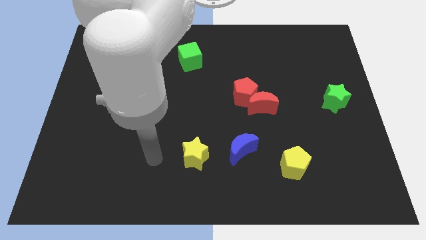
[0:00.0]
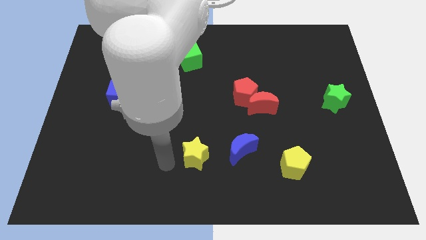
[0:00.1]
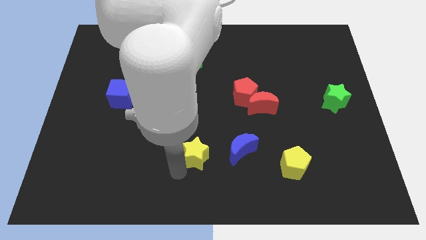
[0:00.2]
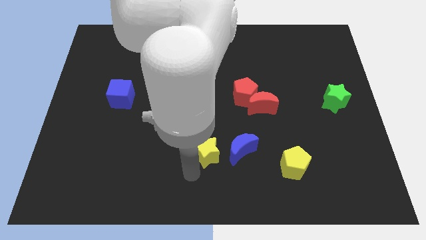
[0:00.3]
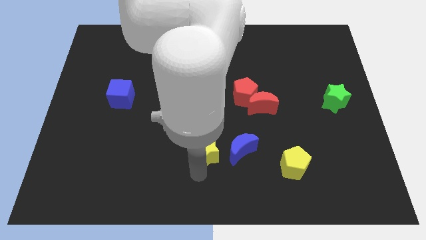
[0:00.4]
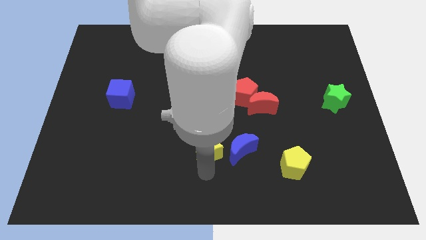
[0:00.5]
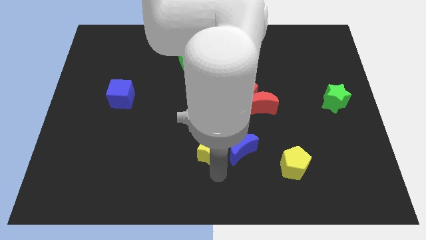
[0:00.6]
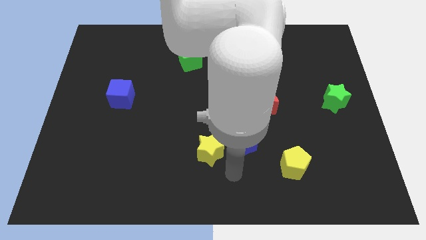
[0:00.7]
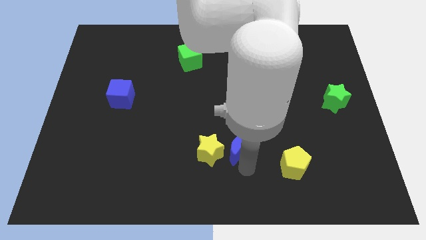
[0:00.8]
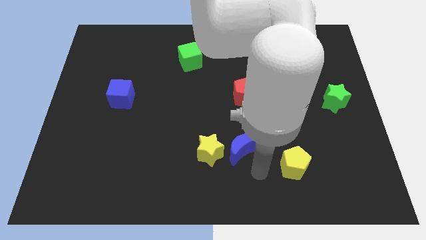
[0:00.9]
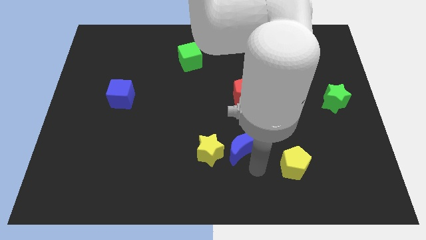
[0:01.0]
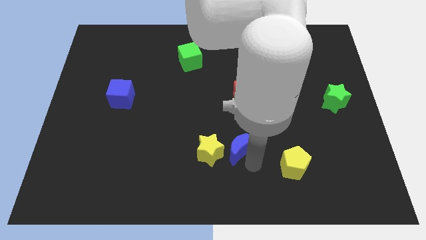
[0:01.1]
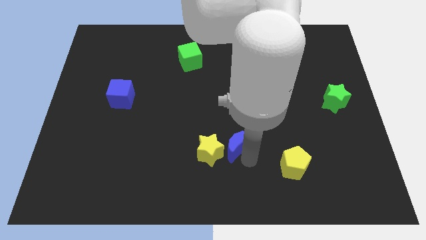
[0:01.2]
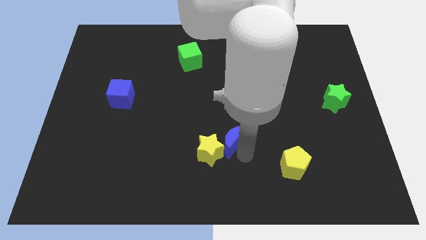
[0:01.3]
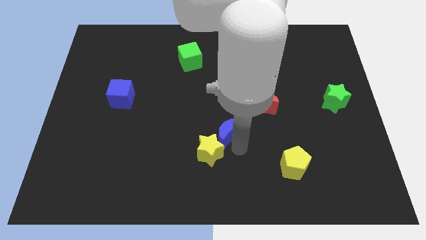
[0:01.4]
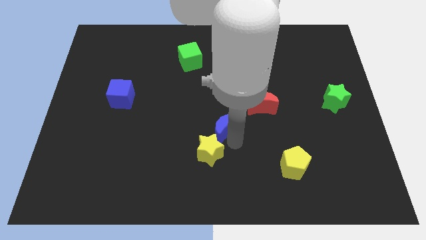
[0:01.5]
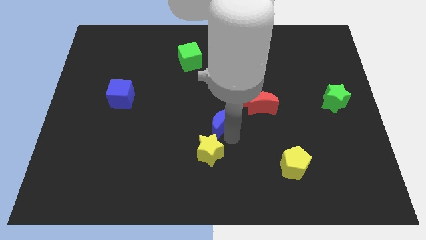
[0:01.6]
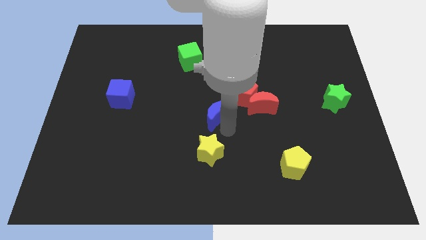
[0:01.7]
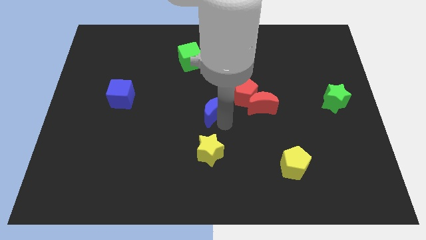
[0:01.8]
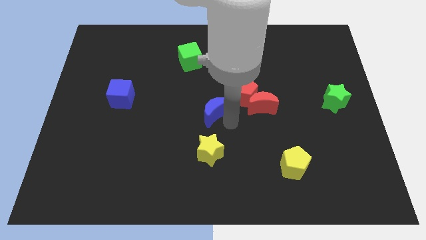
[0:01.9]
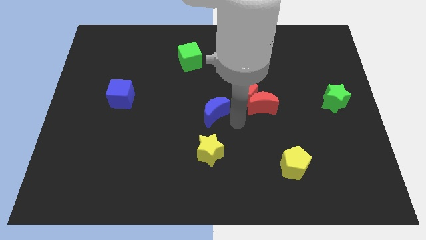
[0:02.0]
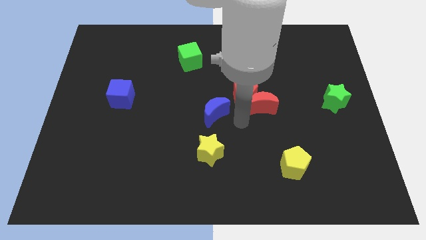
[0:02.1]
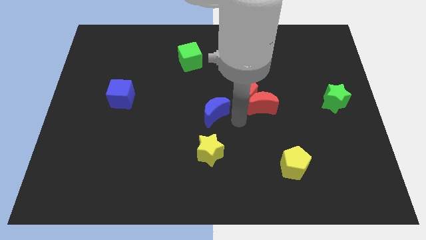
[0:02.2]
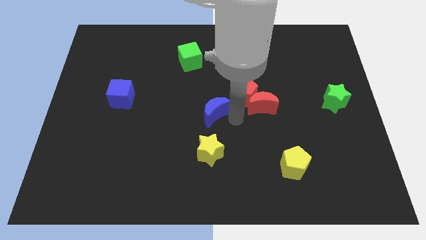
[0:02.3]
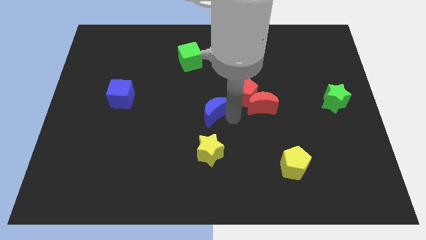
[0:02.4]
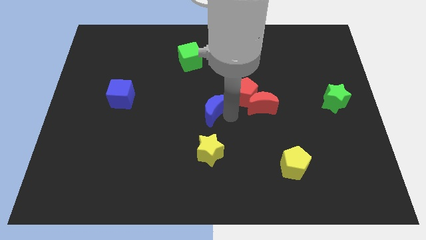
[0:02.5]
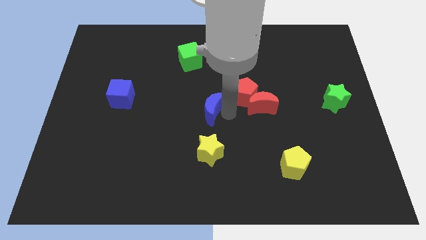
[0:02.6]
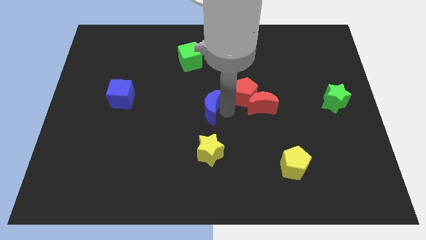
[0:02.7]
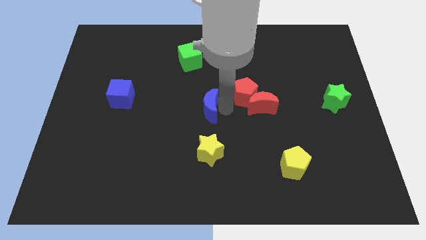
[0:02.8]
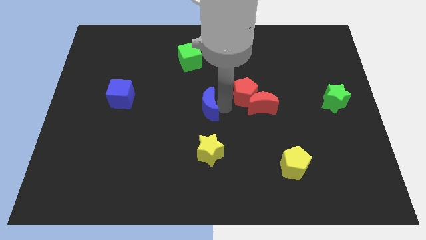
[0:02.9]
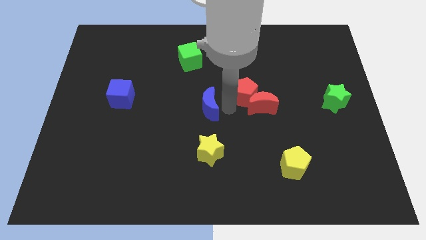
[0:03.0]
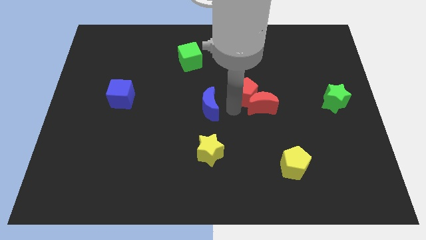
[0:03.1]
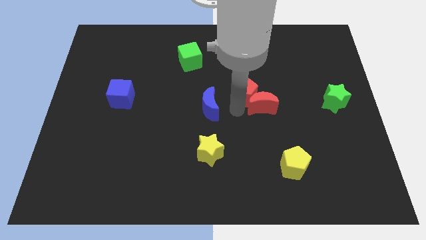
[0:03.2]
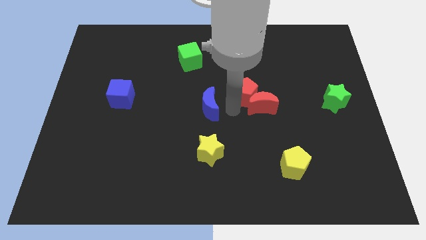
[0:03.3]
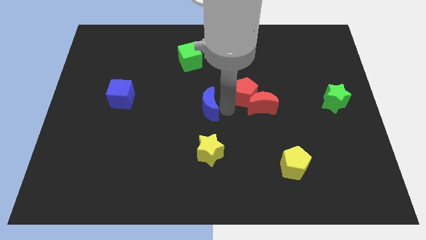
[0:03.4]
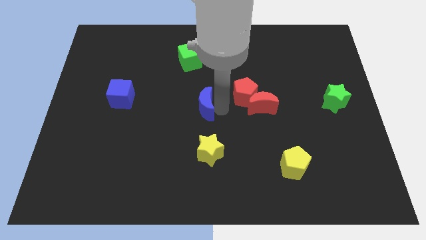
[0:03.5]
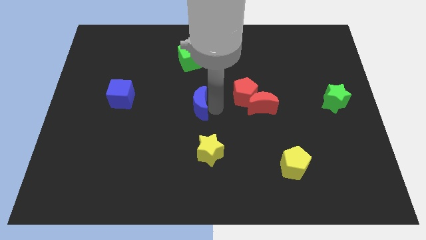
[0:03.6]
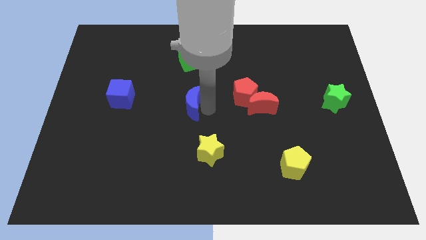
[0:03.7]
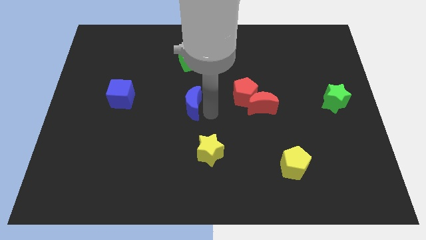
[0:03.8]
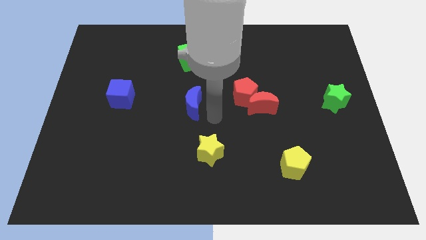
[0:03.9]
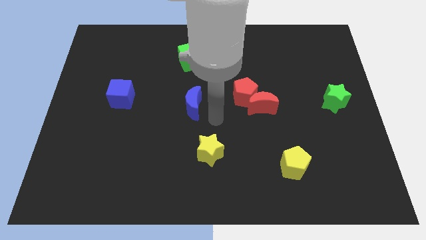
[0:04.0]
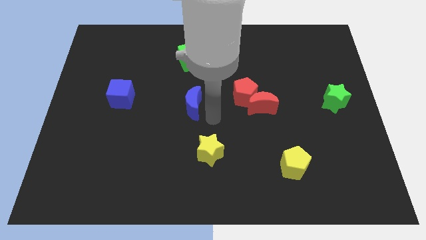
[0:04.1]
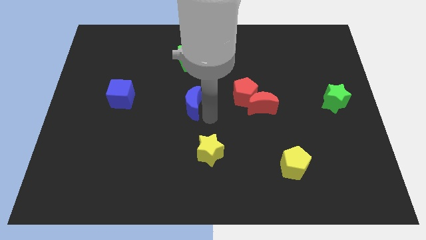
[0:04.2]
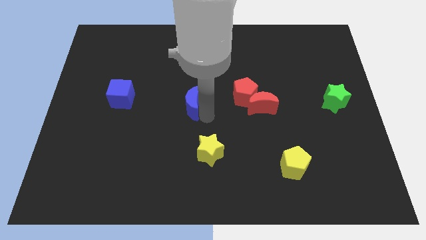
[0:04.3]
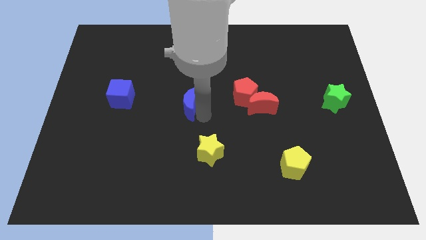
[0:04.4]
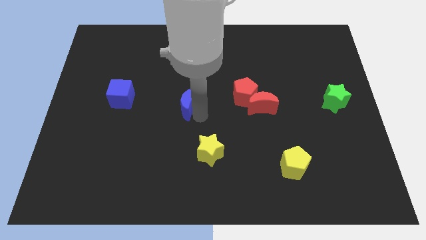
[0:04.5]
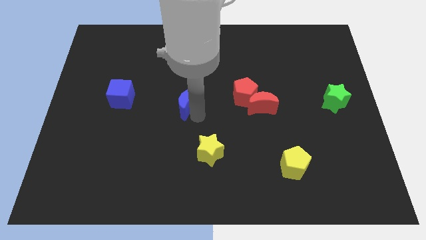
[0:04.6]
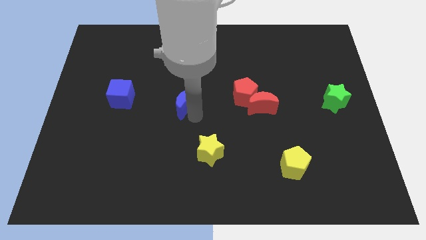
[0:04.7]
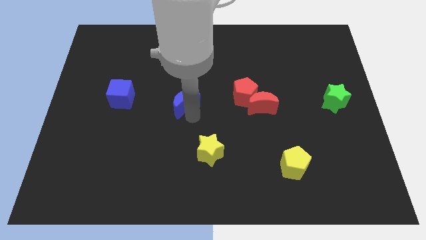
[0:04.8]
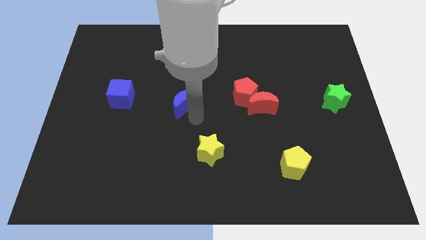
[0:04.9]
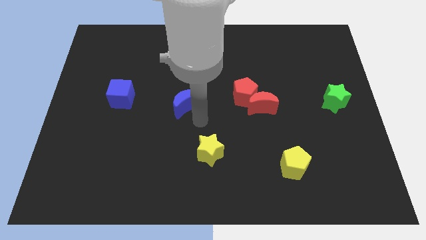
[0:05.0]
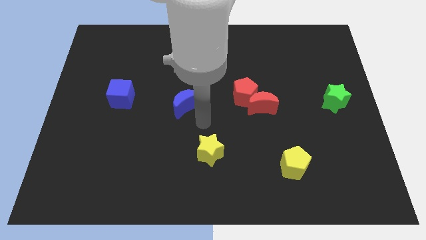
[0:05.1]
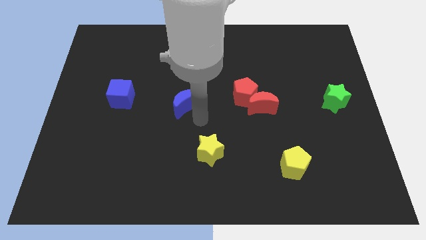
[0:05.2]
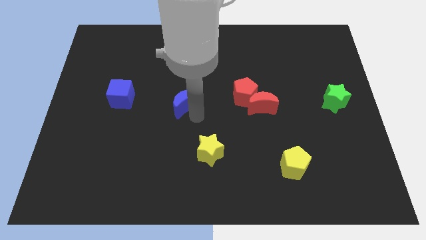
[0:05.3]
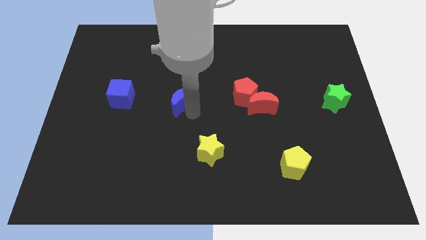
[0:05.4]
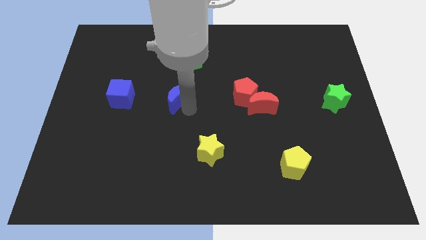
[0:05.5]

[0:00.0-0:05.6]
push the blue moon up and then left

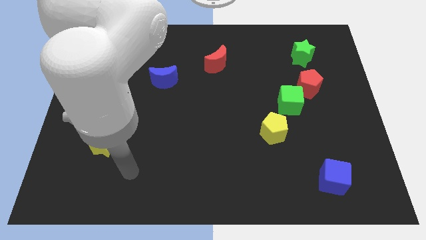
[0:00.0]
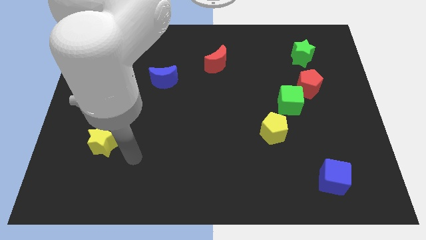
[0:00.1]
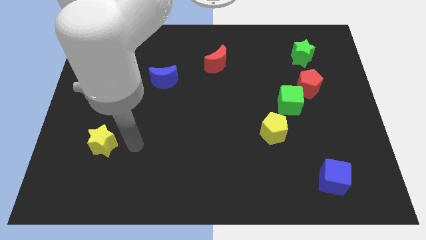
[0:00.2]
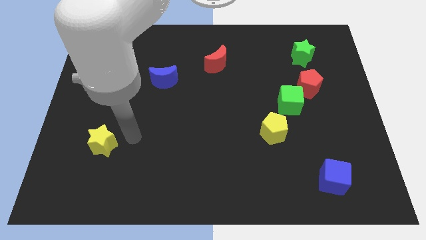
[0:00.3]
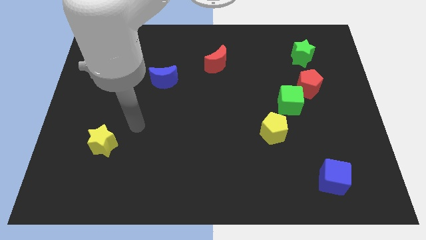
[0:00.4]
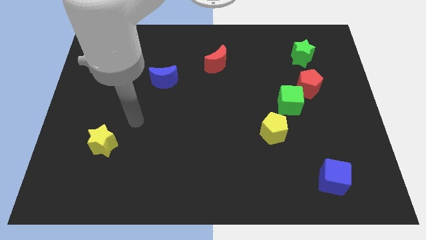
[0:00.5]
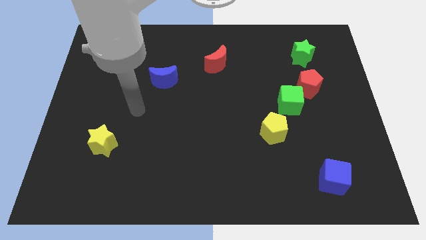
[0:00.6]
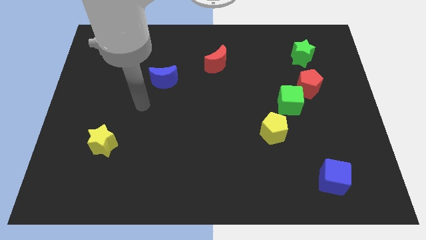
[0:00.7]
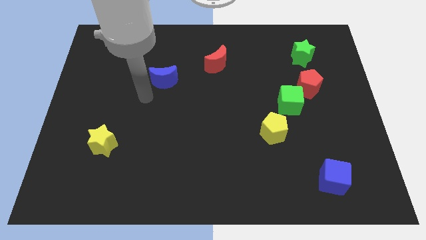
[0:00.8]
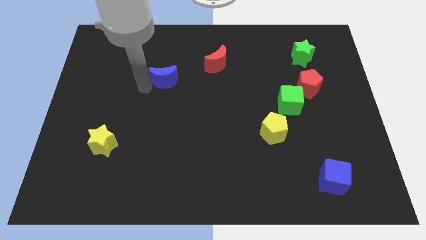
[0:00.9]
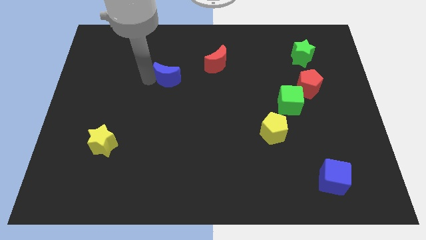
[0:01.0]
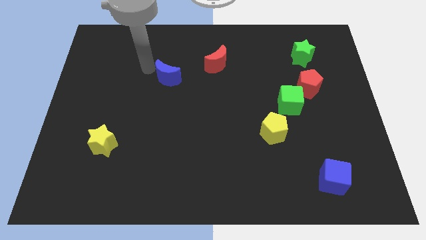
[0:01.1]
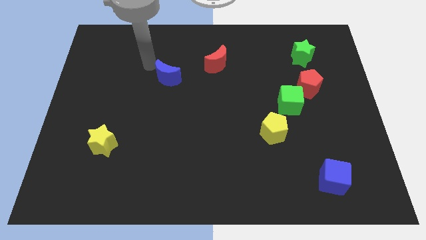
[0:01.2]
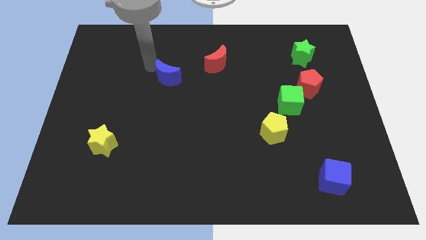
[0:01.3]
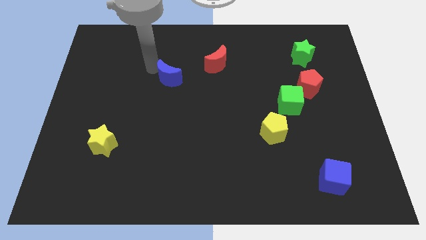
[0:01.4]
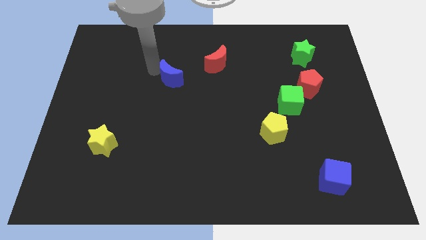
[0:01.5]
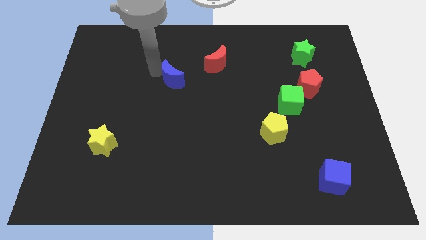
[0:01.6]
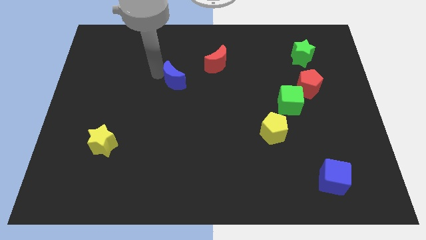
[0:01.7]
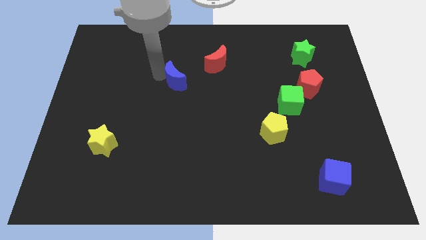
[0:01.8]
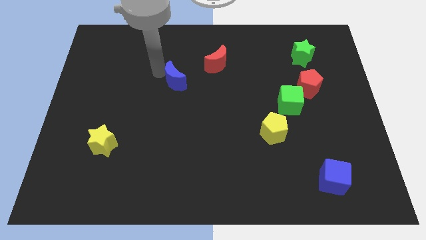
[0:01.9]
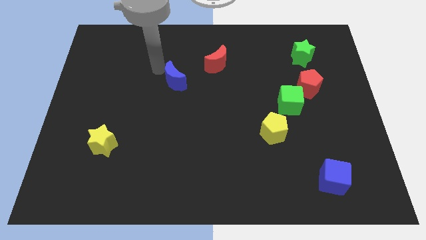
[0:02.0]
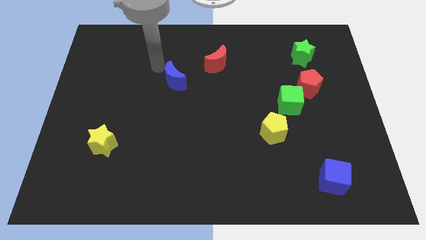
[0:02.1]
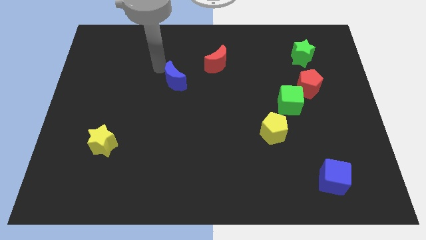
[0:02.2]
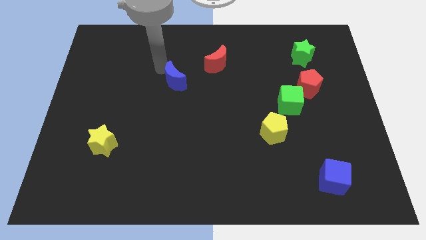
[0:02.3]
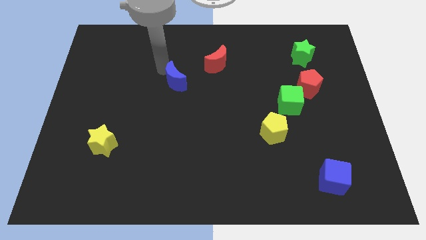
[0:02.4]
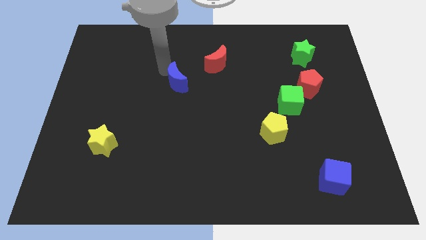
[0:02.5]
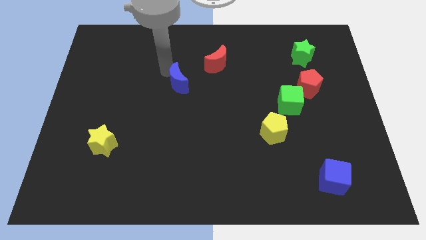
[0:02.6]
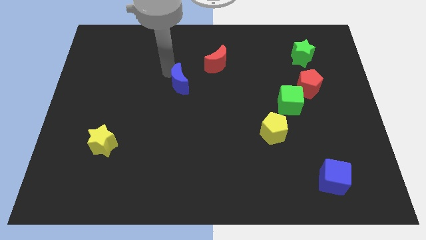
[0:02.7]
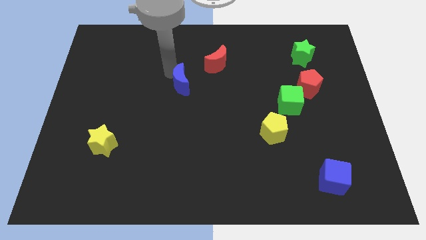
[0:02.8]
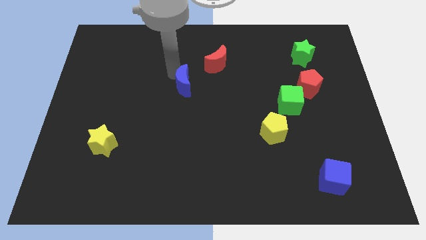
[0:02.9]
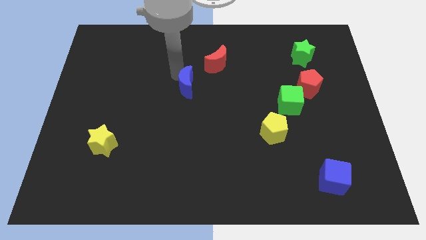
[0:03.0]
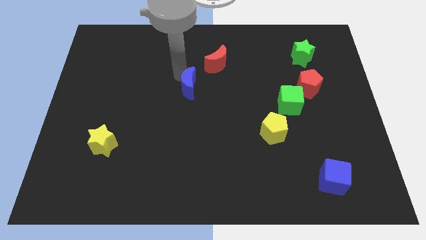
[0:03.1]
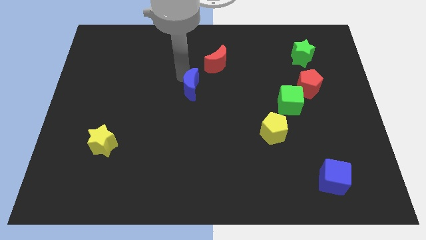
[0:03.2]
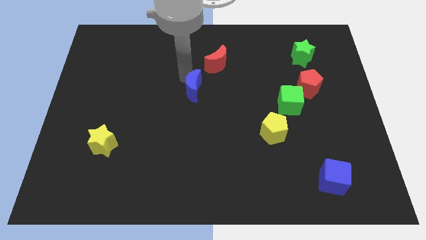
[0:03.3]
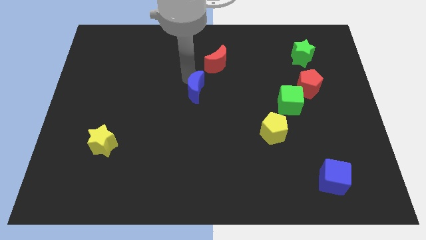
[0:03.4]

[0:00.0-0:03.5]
move the blue moon somewhat downwards and then right
